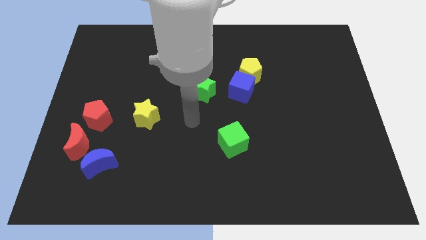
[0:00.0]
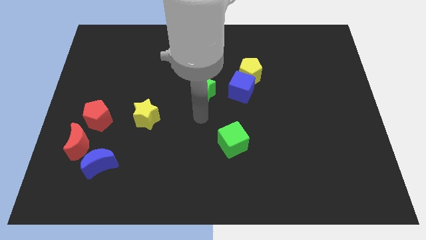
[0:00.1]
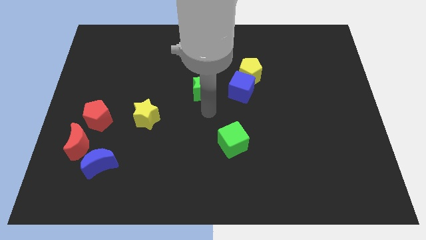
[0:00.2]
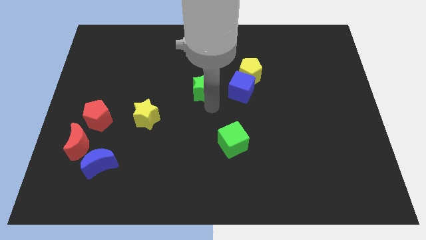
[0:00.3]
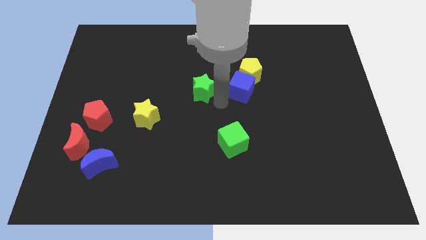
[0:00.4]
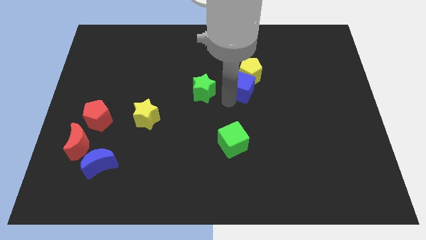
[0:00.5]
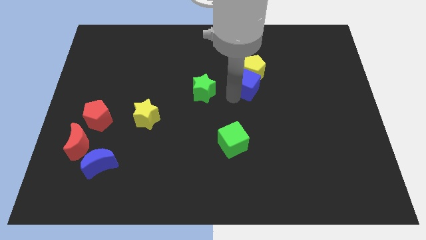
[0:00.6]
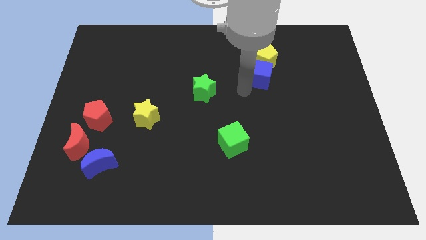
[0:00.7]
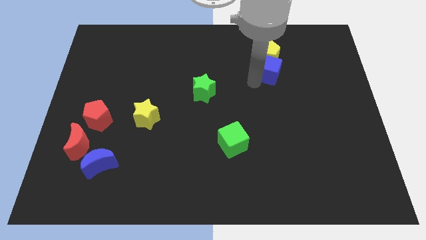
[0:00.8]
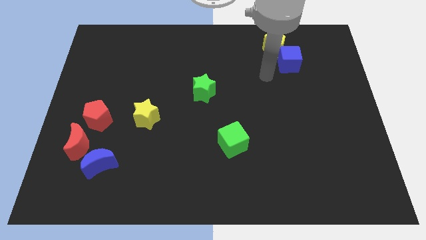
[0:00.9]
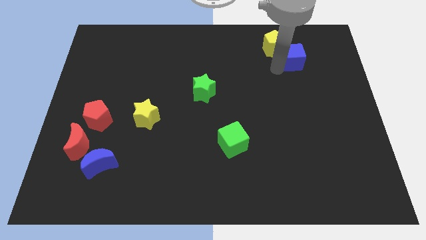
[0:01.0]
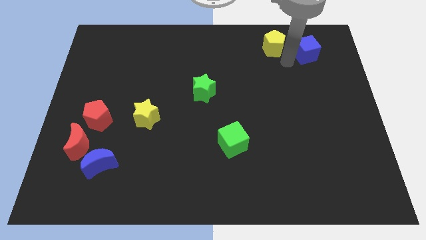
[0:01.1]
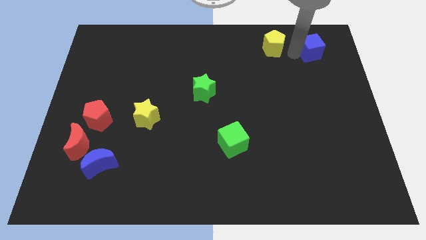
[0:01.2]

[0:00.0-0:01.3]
move the yellow pentagon away from the blue cube

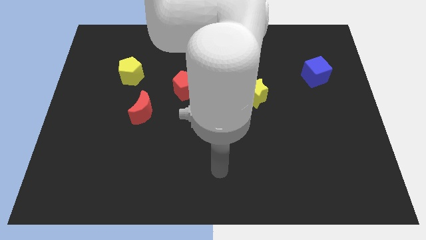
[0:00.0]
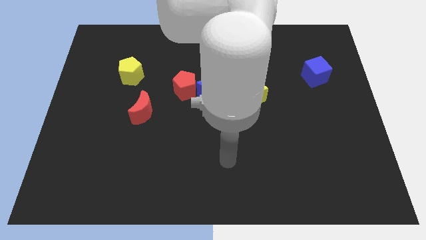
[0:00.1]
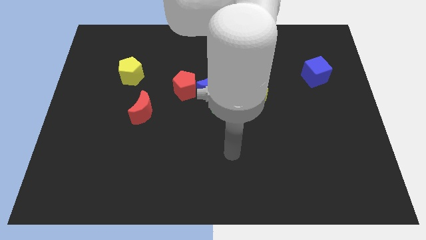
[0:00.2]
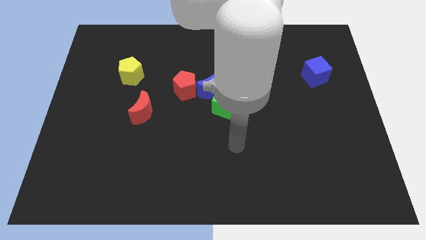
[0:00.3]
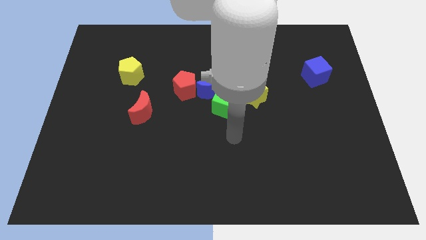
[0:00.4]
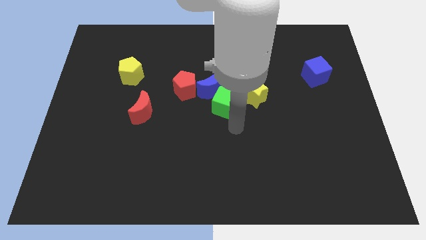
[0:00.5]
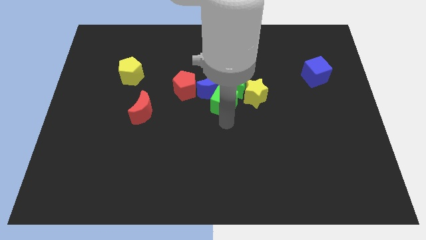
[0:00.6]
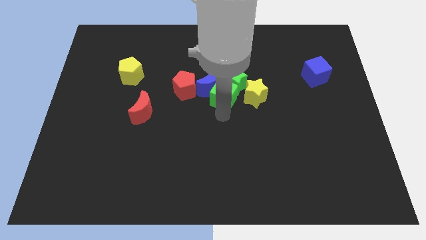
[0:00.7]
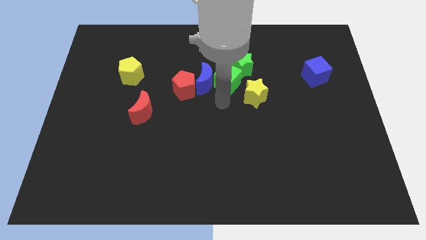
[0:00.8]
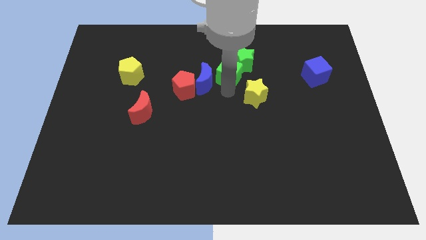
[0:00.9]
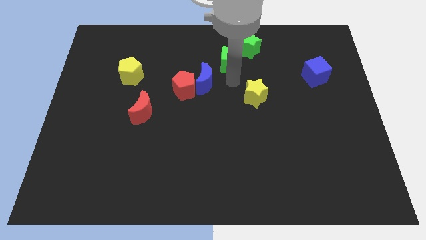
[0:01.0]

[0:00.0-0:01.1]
pull the green star apart from the clump

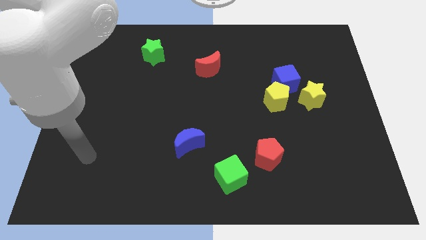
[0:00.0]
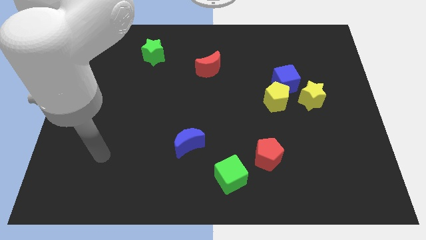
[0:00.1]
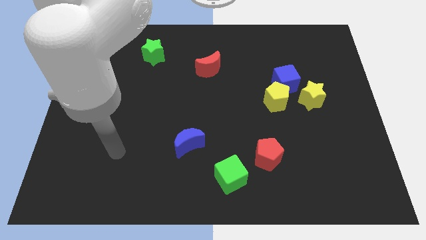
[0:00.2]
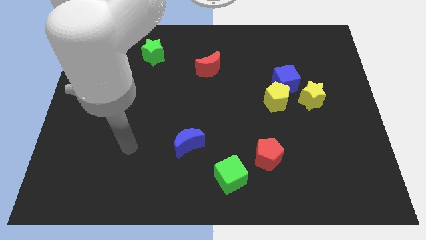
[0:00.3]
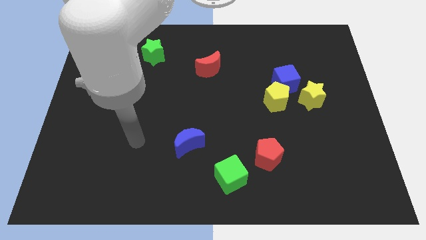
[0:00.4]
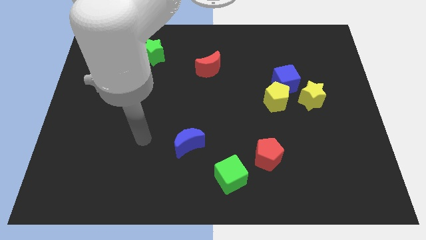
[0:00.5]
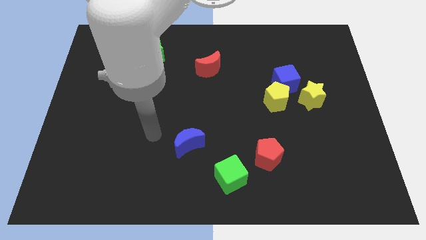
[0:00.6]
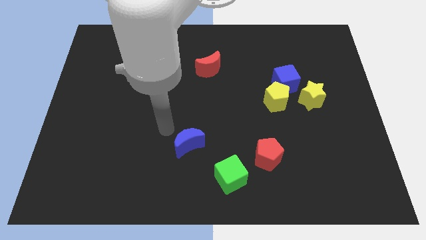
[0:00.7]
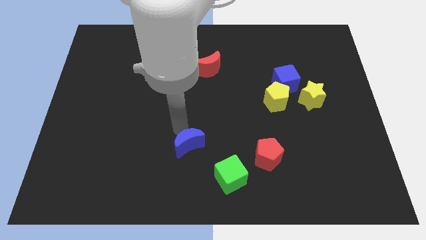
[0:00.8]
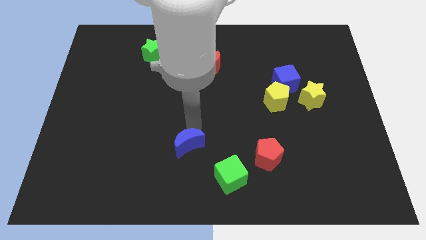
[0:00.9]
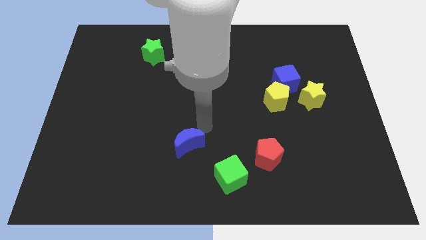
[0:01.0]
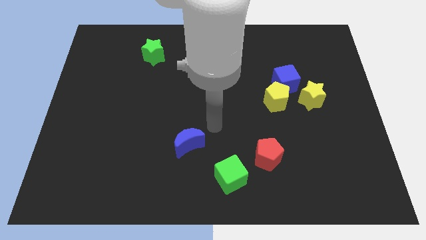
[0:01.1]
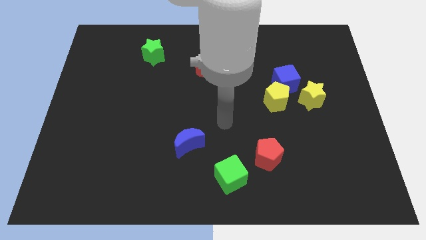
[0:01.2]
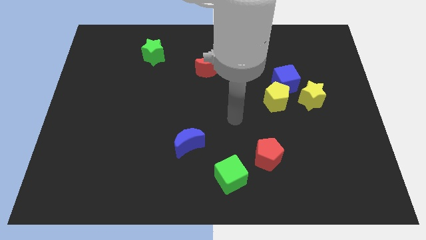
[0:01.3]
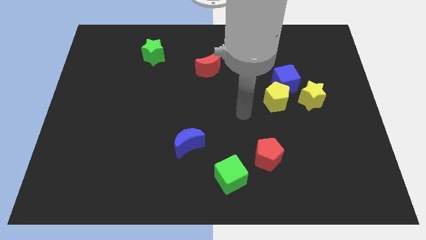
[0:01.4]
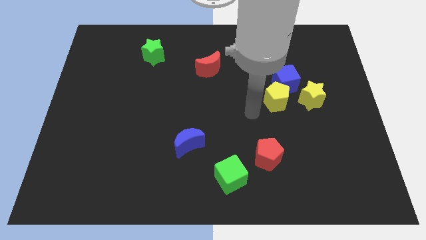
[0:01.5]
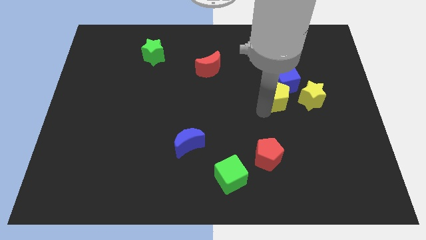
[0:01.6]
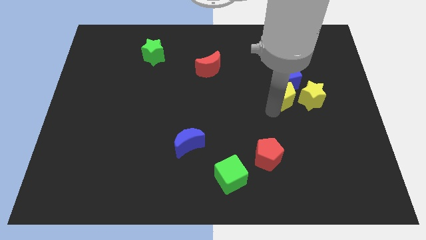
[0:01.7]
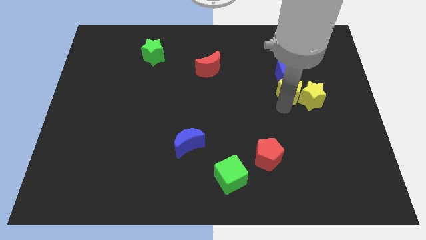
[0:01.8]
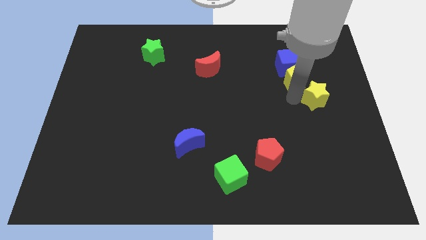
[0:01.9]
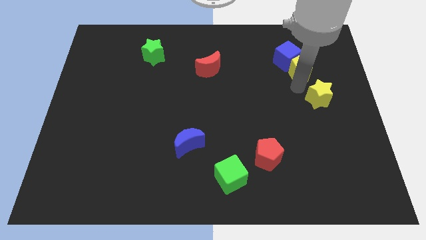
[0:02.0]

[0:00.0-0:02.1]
pull the blue cube apart from the yellow pentagon and yellow star

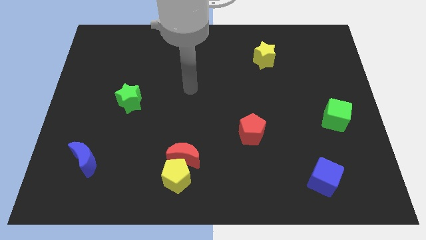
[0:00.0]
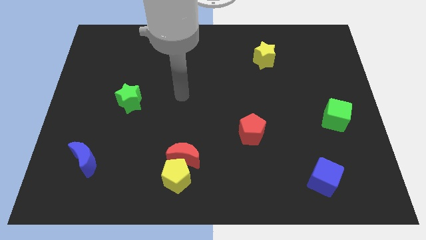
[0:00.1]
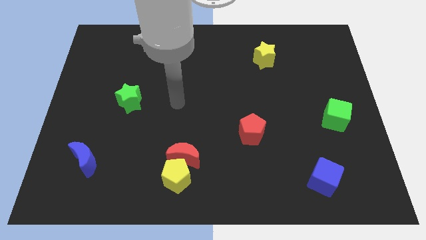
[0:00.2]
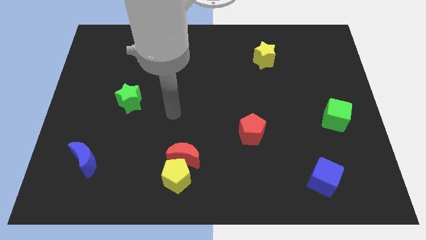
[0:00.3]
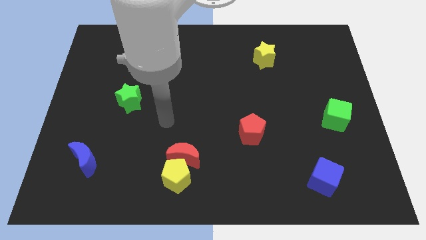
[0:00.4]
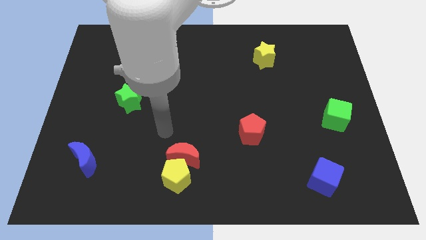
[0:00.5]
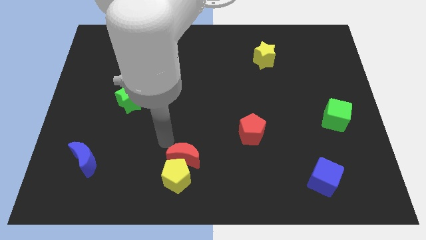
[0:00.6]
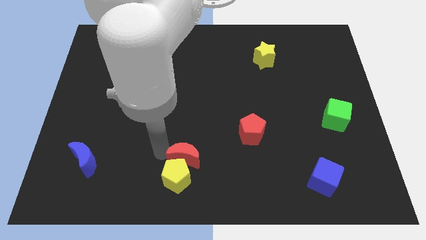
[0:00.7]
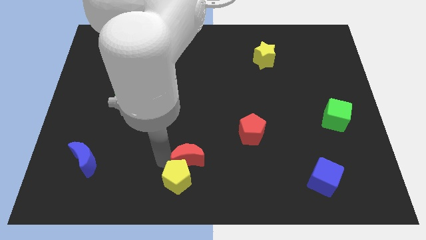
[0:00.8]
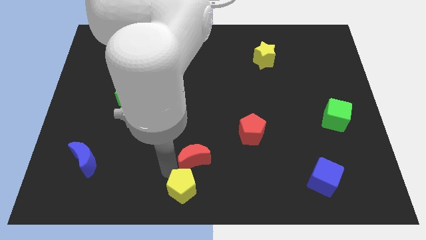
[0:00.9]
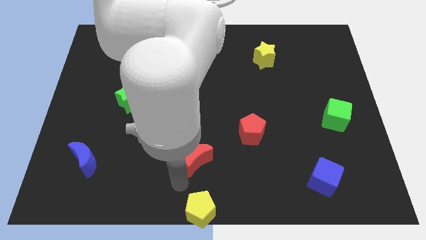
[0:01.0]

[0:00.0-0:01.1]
pull the red moon apart from the yellow pentagon

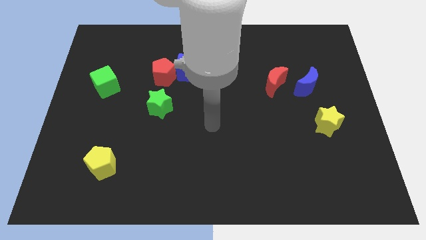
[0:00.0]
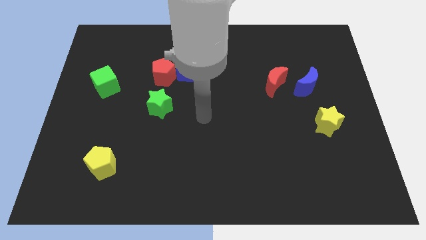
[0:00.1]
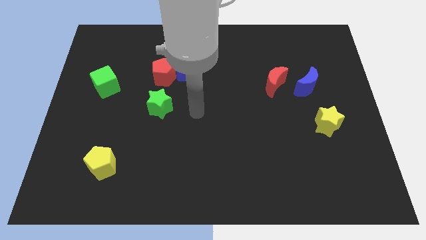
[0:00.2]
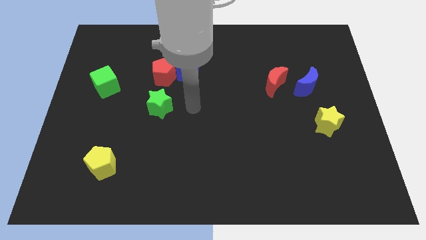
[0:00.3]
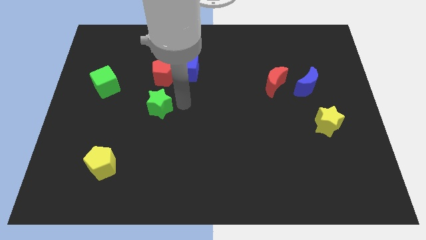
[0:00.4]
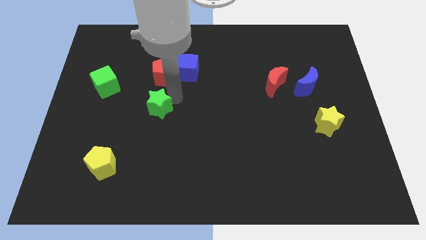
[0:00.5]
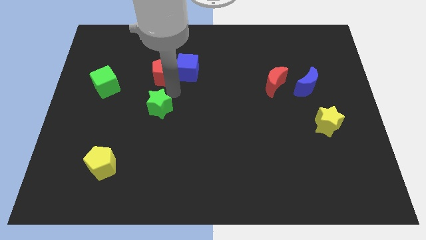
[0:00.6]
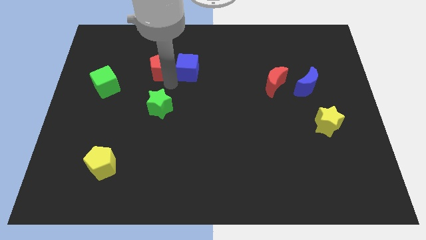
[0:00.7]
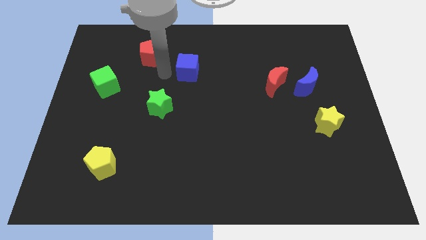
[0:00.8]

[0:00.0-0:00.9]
move the blue cube away from the red pentagon

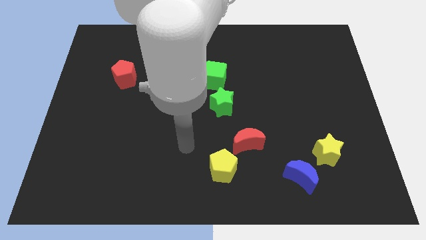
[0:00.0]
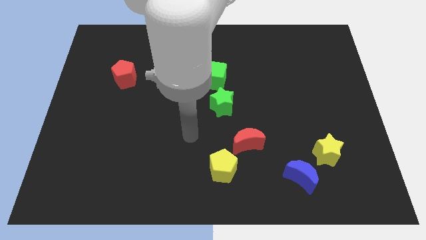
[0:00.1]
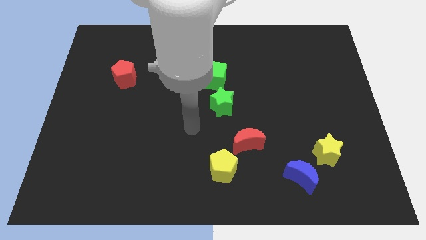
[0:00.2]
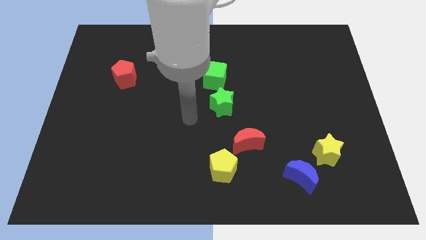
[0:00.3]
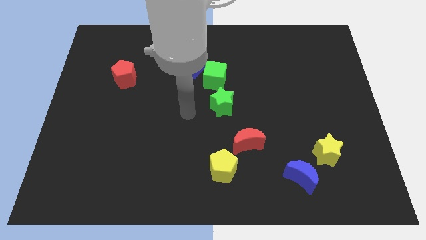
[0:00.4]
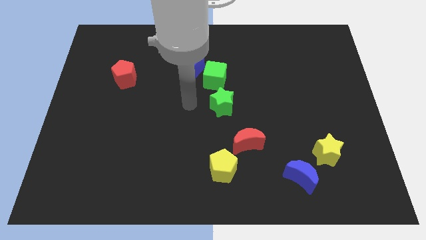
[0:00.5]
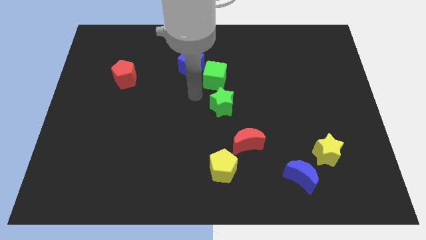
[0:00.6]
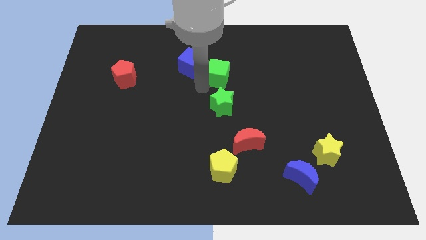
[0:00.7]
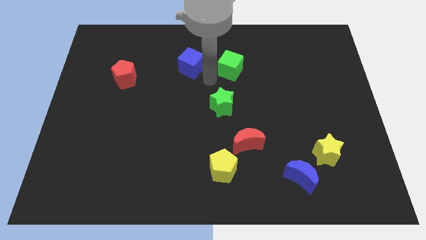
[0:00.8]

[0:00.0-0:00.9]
pull the blue cube apart from the green cube

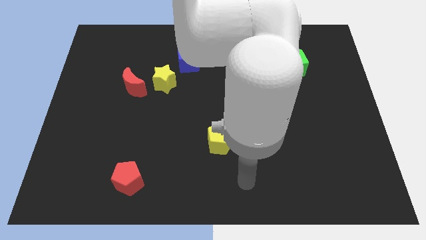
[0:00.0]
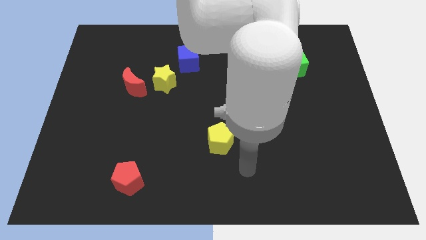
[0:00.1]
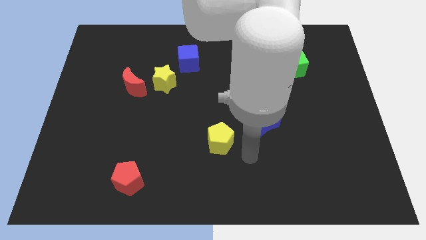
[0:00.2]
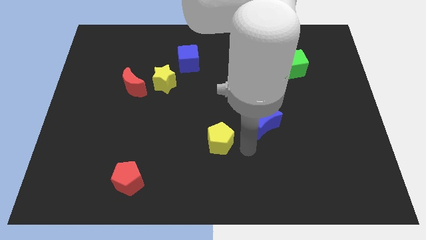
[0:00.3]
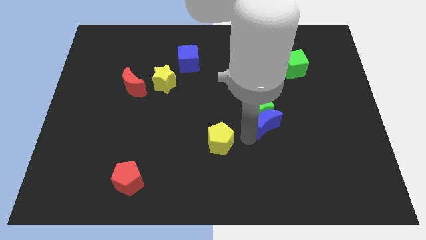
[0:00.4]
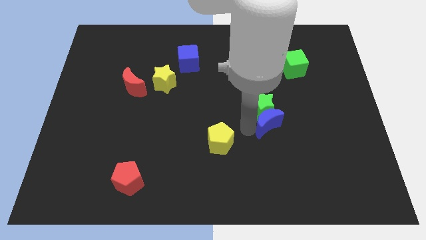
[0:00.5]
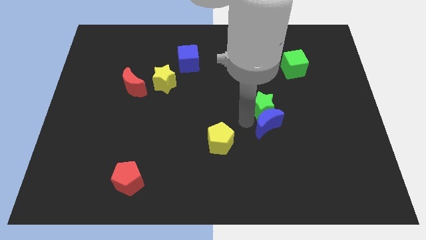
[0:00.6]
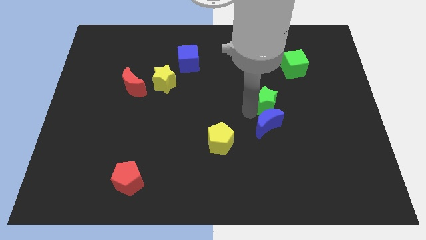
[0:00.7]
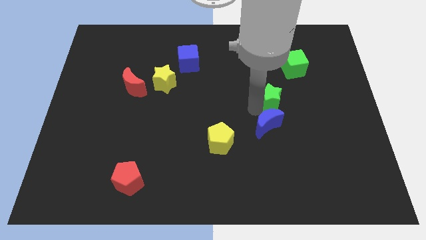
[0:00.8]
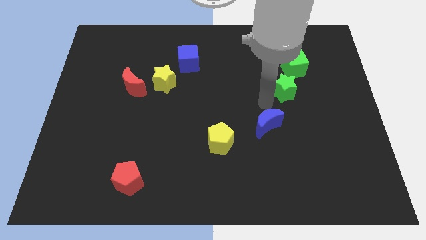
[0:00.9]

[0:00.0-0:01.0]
move the blue moon away from the green star

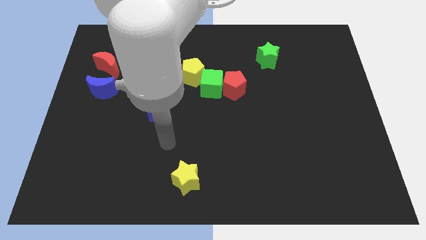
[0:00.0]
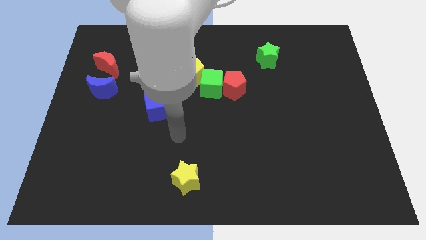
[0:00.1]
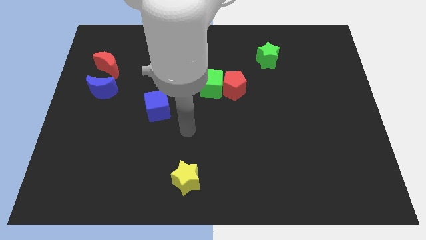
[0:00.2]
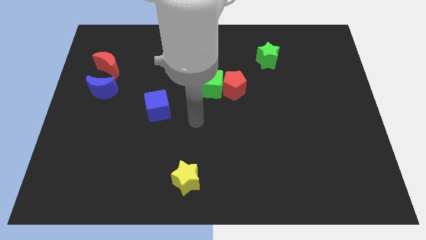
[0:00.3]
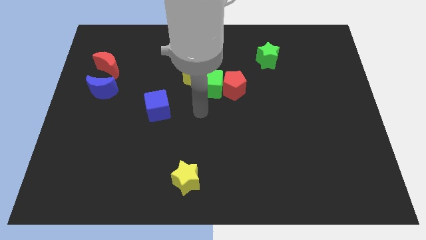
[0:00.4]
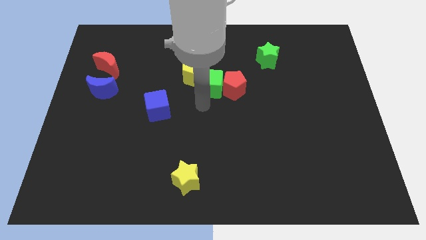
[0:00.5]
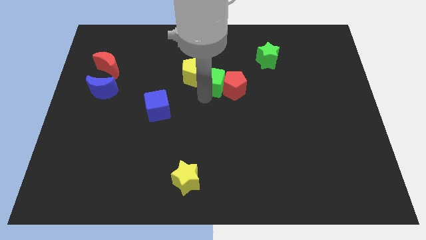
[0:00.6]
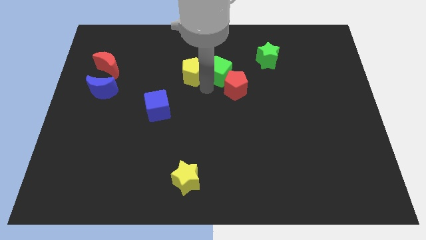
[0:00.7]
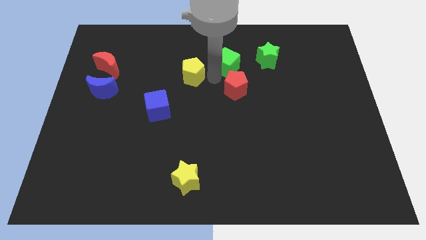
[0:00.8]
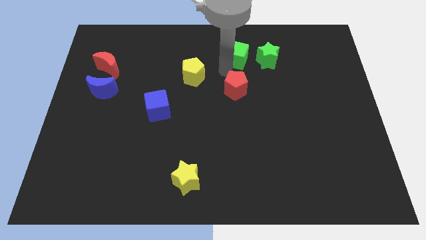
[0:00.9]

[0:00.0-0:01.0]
move the red pentagon away from the green cube
